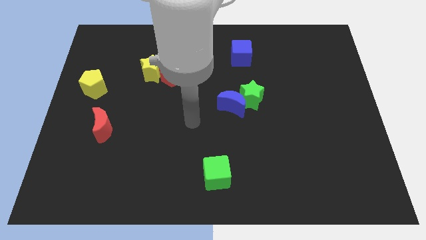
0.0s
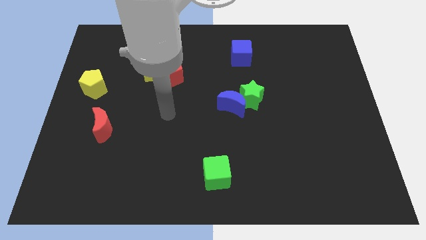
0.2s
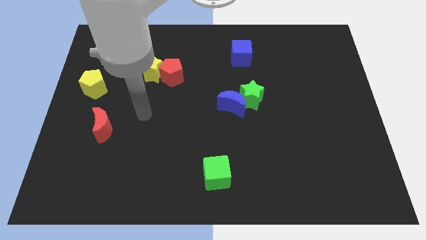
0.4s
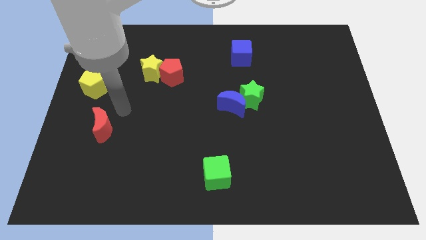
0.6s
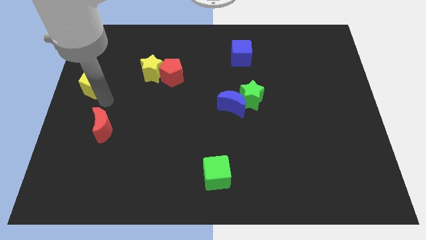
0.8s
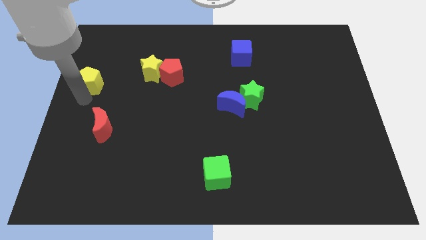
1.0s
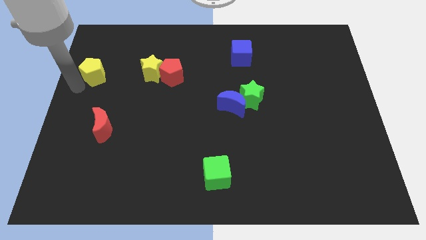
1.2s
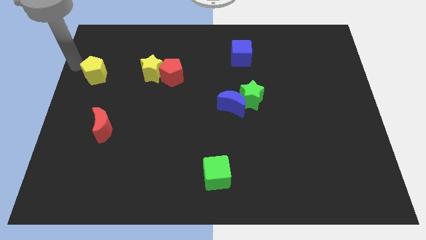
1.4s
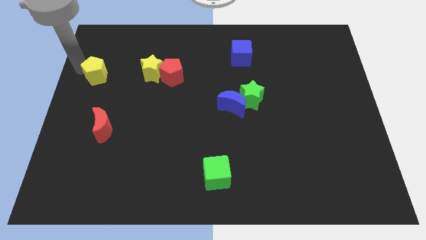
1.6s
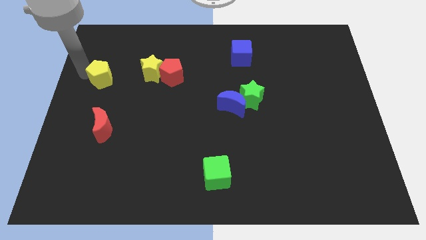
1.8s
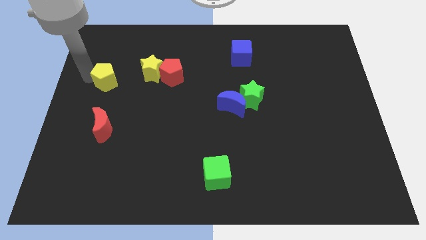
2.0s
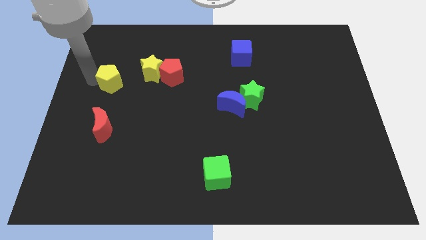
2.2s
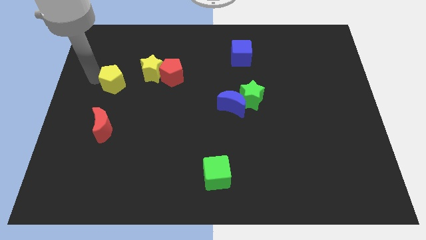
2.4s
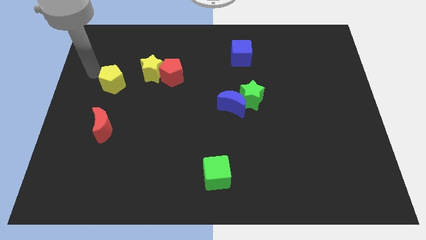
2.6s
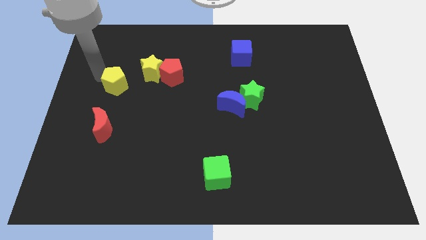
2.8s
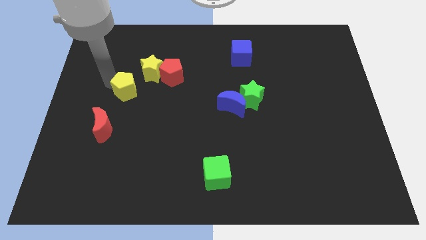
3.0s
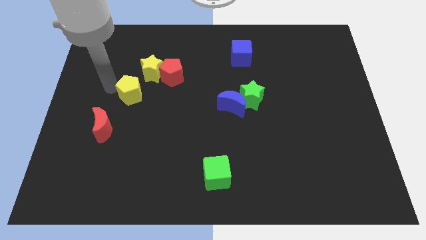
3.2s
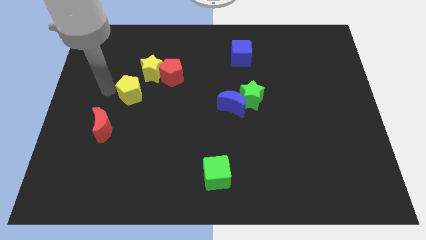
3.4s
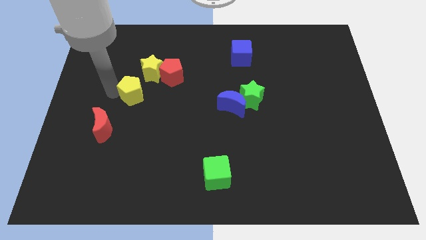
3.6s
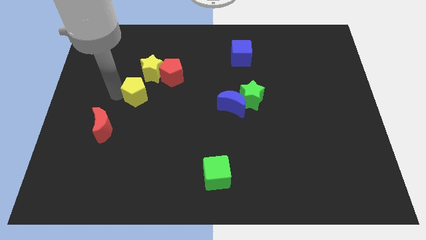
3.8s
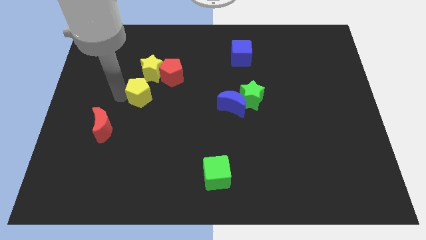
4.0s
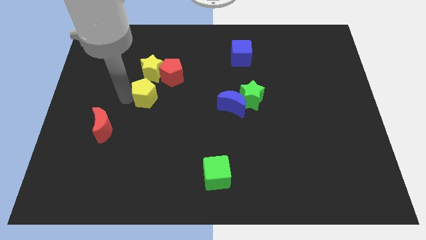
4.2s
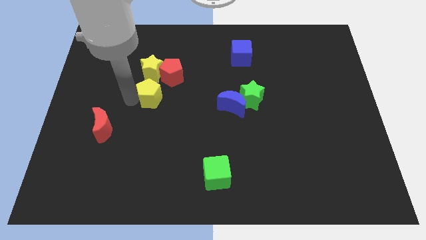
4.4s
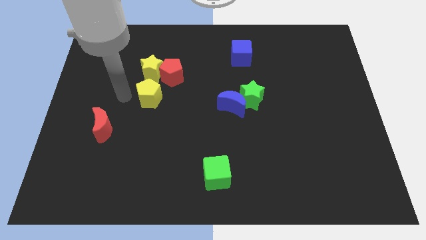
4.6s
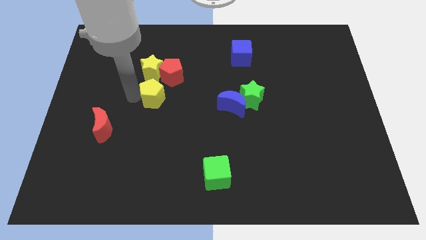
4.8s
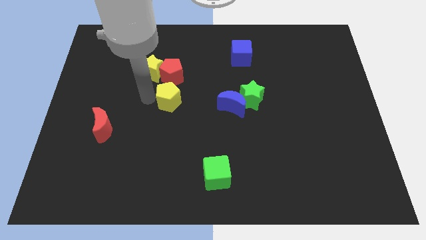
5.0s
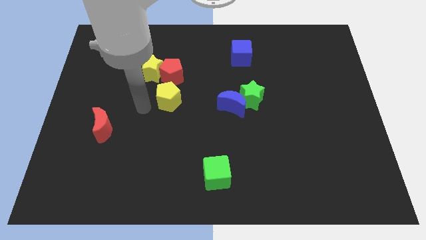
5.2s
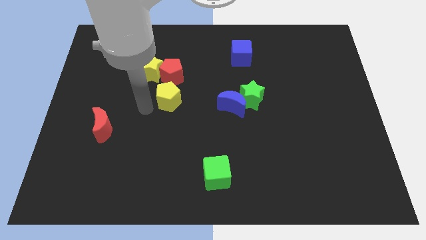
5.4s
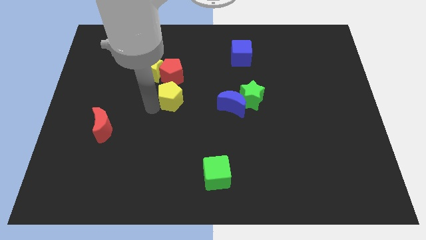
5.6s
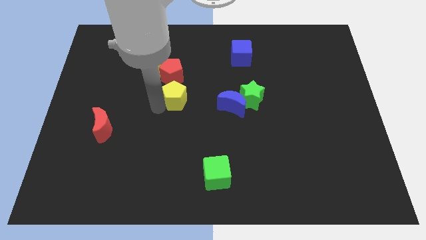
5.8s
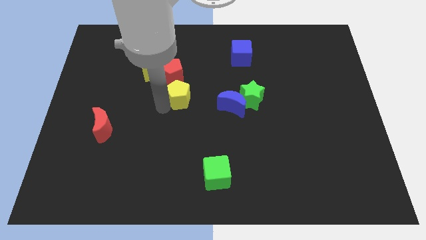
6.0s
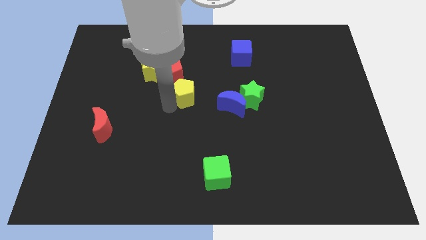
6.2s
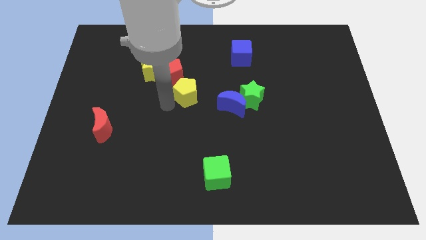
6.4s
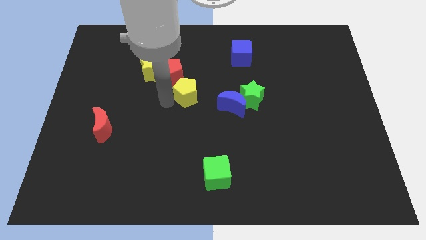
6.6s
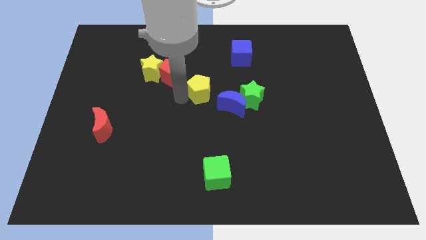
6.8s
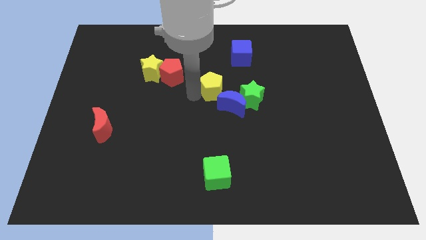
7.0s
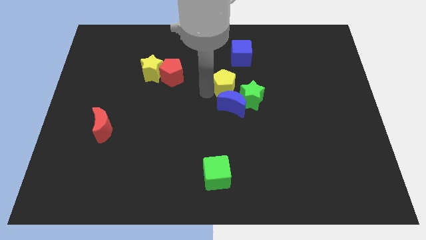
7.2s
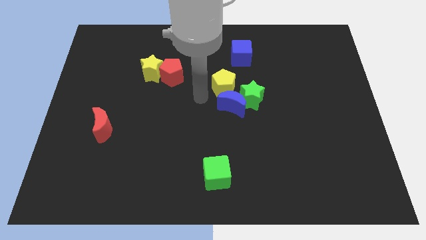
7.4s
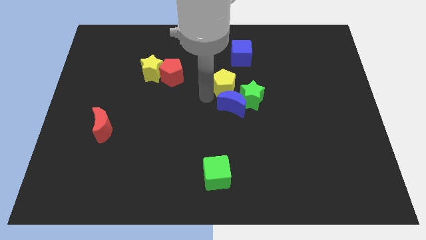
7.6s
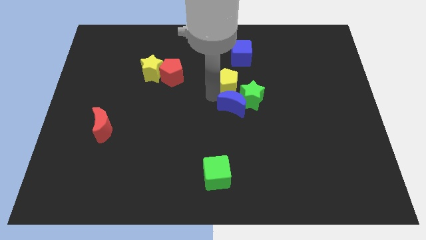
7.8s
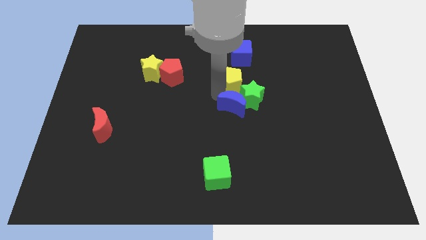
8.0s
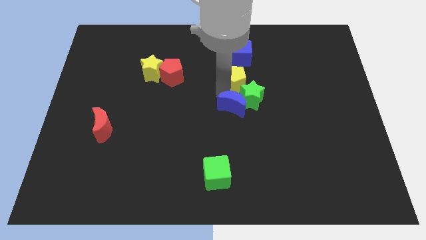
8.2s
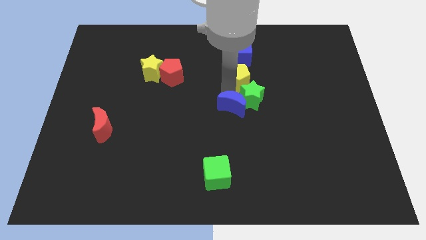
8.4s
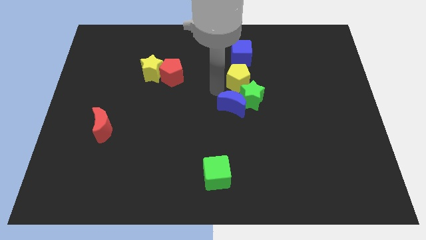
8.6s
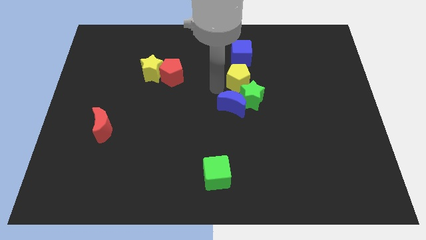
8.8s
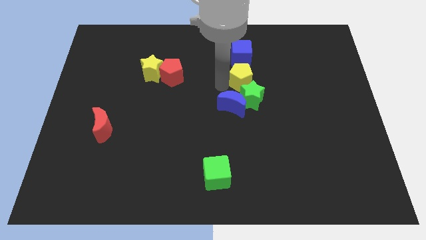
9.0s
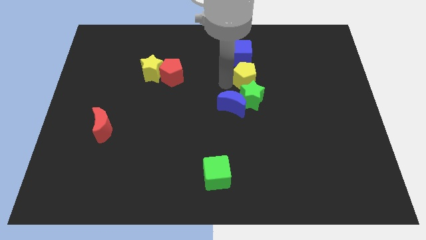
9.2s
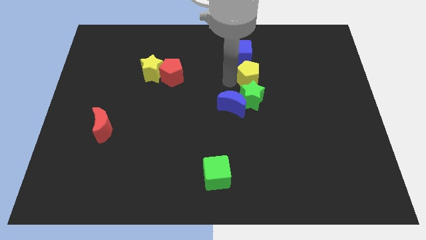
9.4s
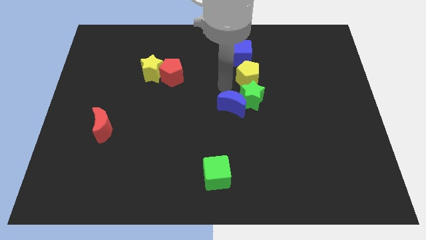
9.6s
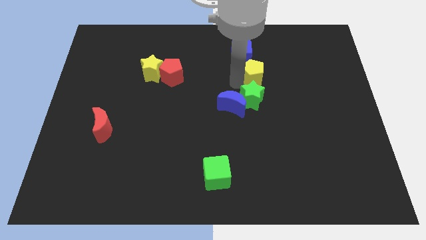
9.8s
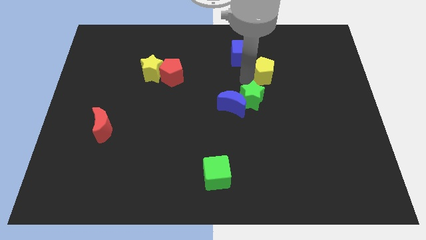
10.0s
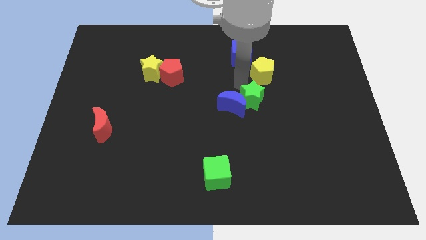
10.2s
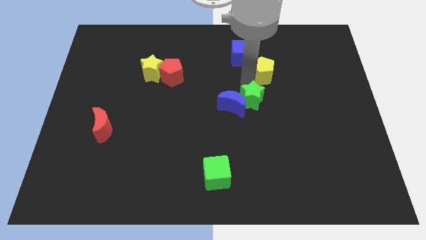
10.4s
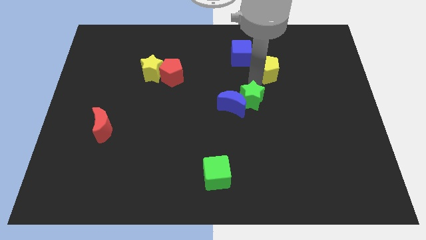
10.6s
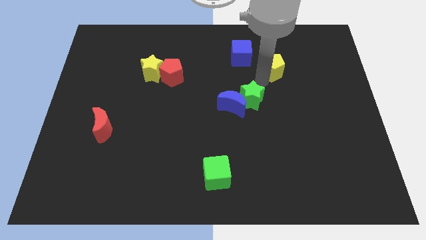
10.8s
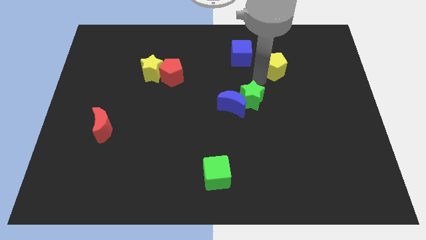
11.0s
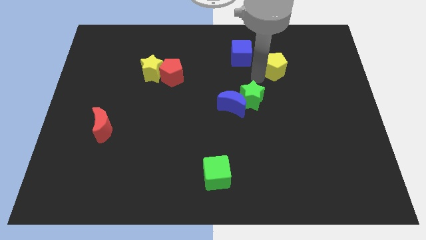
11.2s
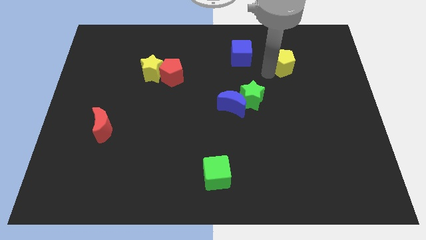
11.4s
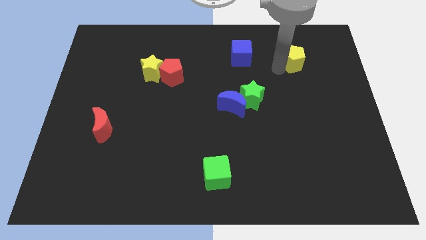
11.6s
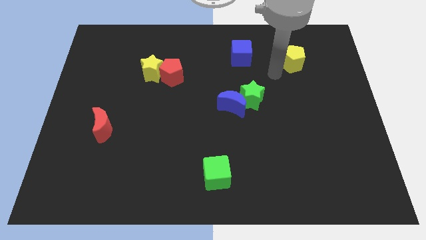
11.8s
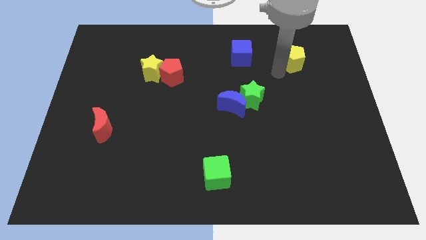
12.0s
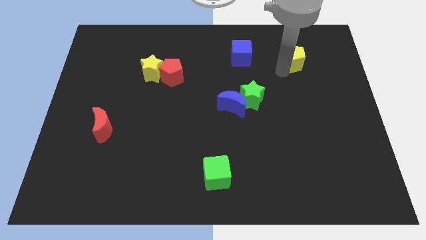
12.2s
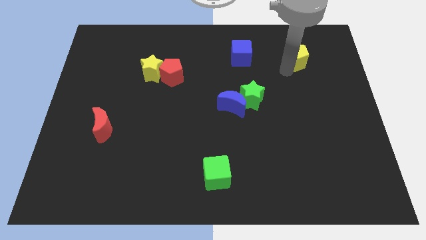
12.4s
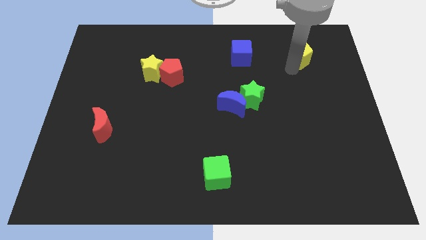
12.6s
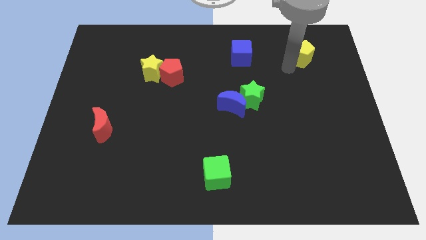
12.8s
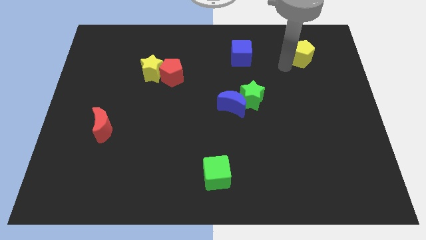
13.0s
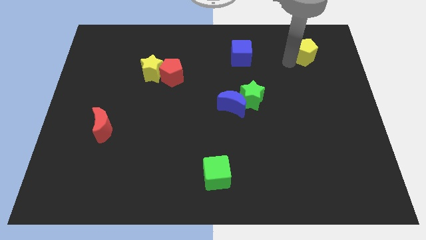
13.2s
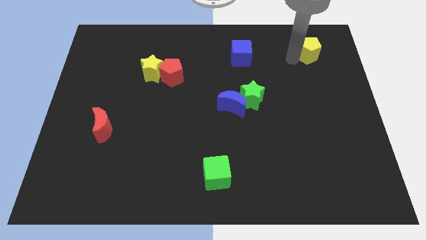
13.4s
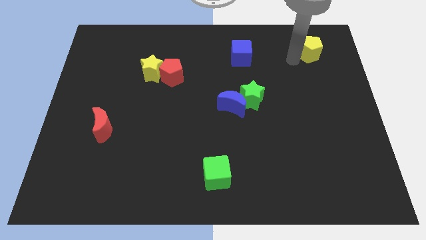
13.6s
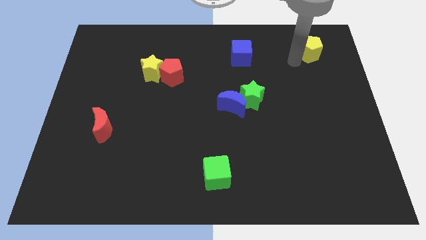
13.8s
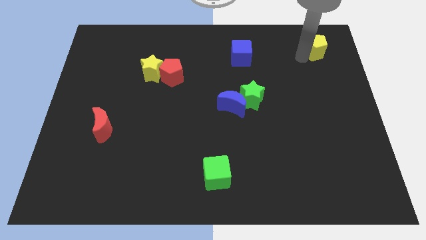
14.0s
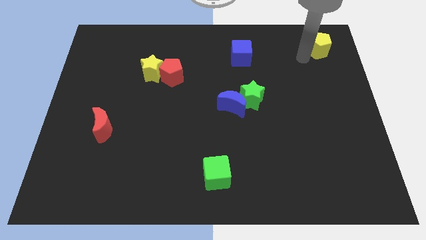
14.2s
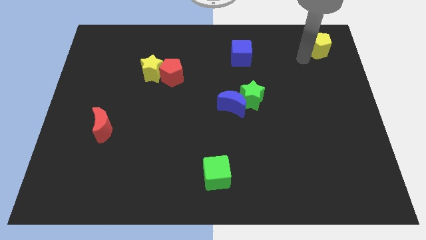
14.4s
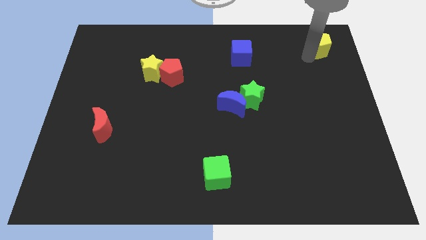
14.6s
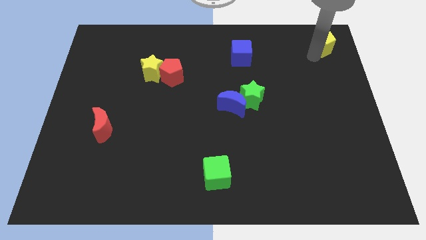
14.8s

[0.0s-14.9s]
slide the yellow pentagon to the upper right corner
